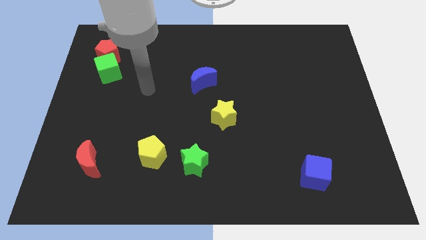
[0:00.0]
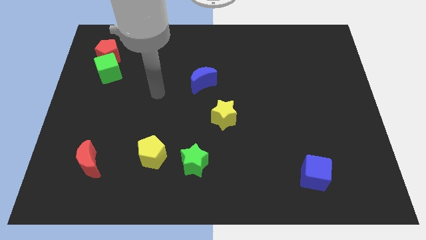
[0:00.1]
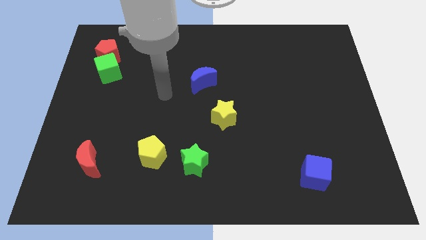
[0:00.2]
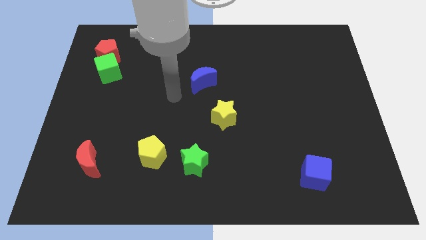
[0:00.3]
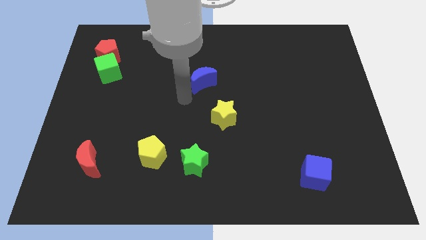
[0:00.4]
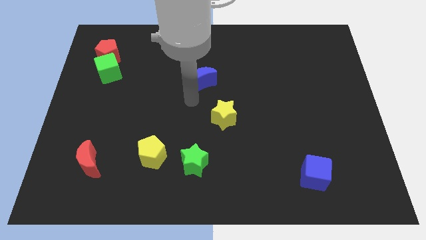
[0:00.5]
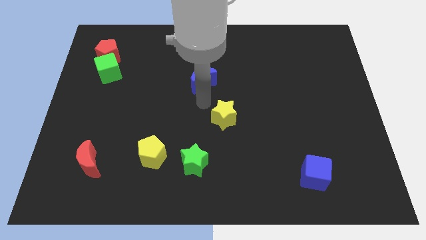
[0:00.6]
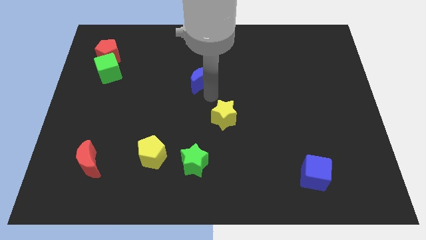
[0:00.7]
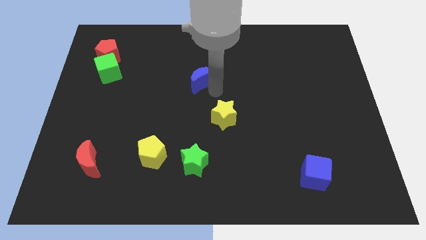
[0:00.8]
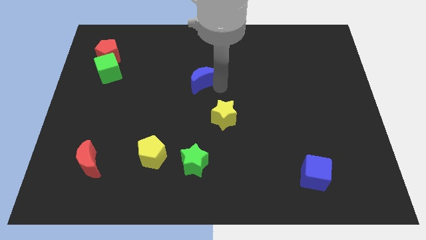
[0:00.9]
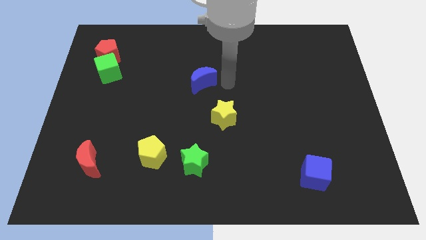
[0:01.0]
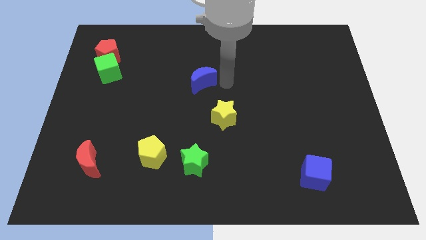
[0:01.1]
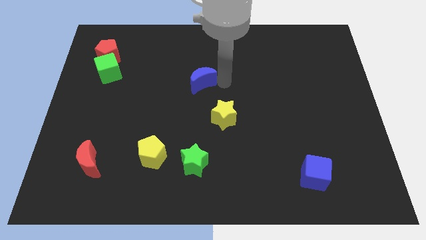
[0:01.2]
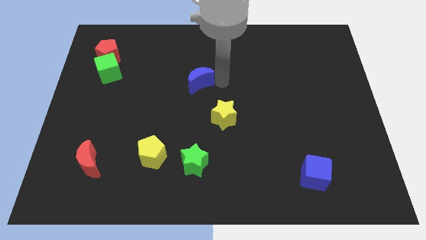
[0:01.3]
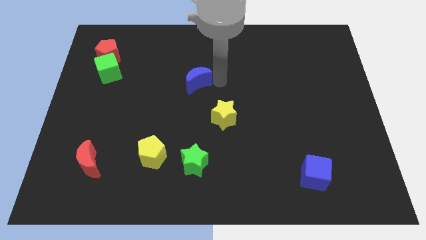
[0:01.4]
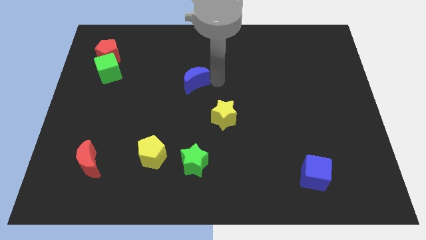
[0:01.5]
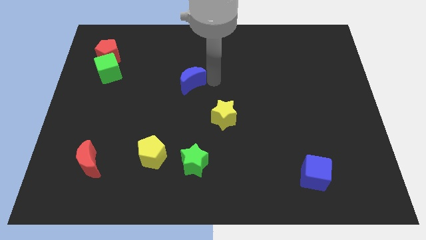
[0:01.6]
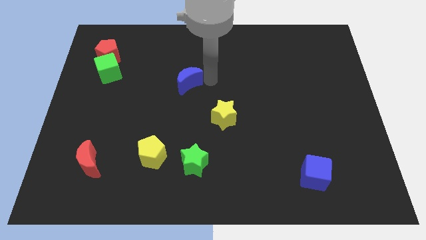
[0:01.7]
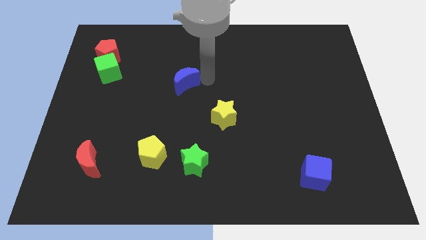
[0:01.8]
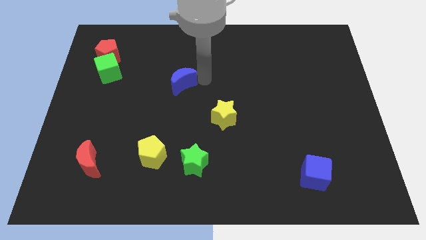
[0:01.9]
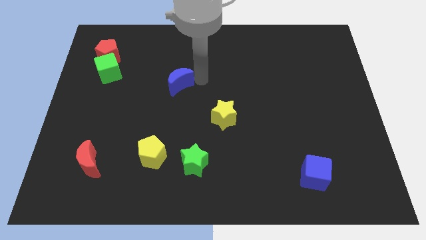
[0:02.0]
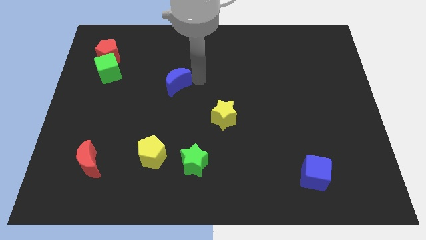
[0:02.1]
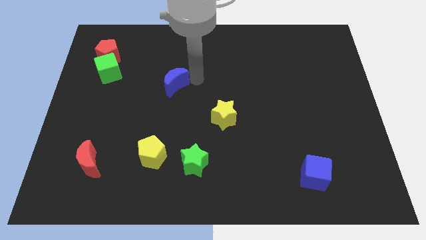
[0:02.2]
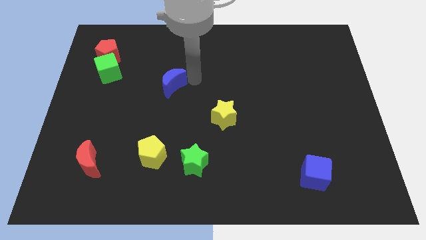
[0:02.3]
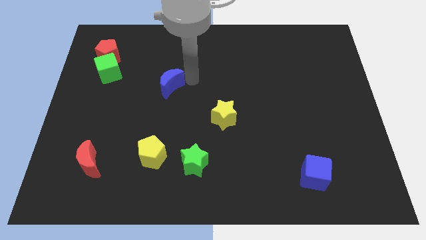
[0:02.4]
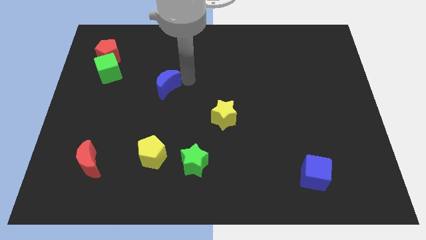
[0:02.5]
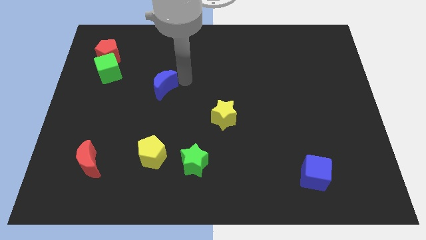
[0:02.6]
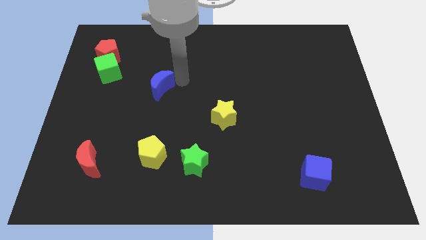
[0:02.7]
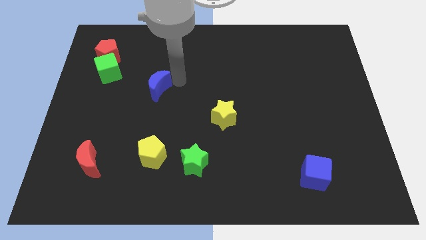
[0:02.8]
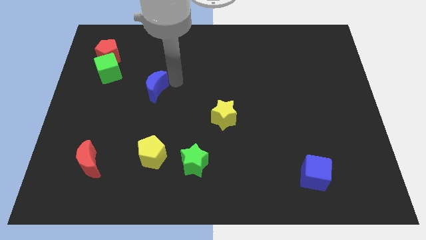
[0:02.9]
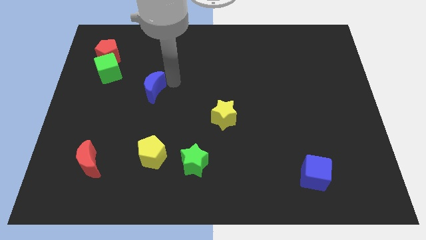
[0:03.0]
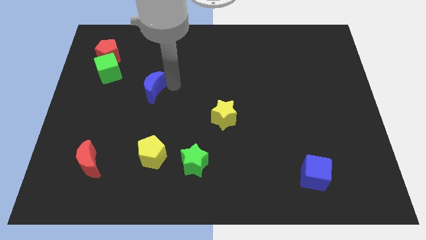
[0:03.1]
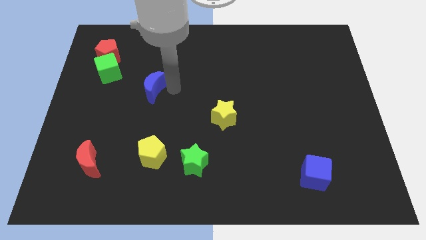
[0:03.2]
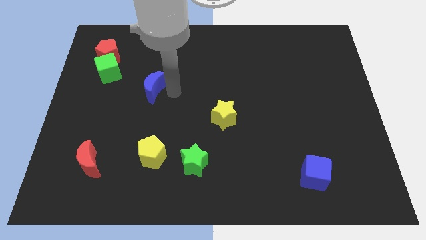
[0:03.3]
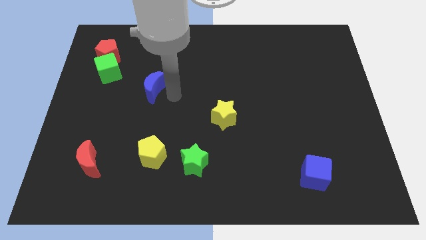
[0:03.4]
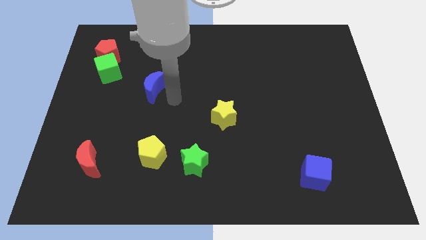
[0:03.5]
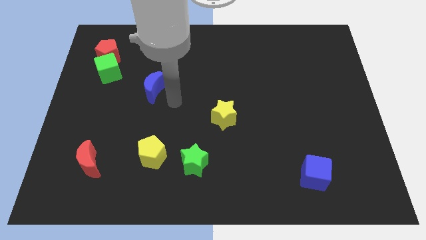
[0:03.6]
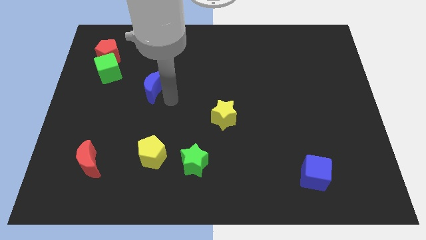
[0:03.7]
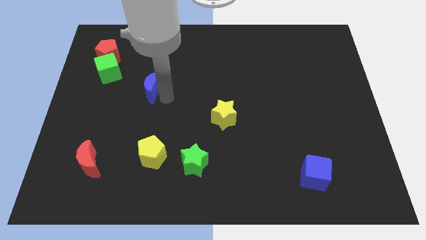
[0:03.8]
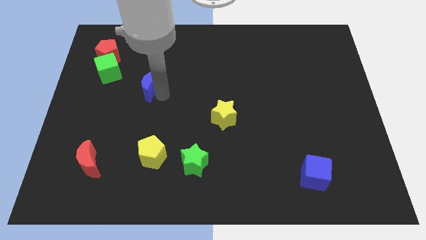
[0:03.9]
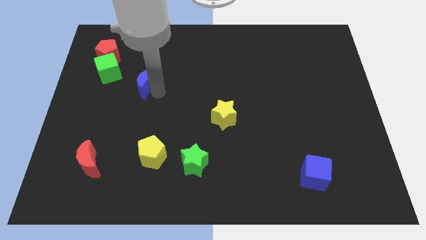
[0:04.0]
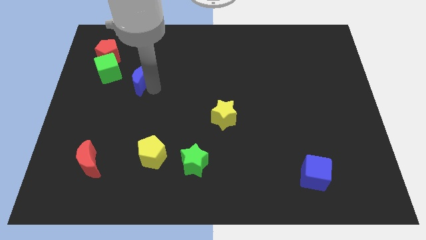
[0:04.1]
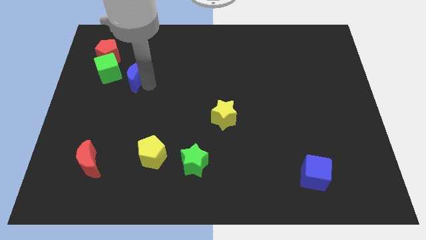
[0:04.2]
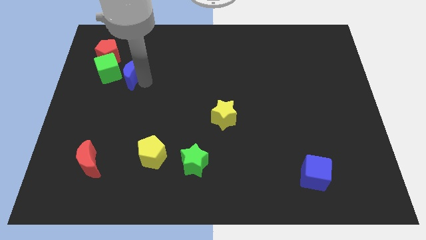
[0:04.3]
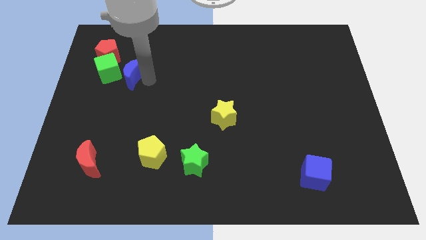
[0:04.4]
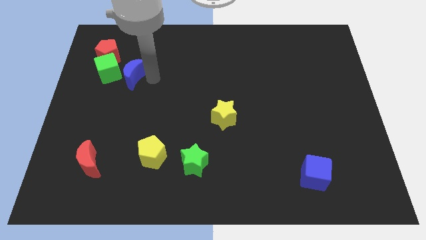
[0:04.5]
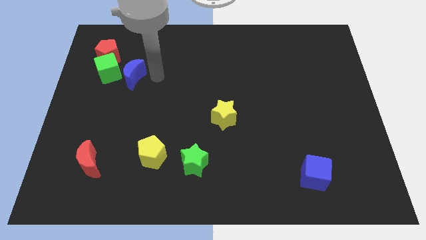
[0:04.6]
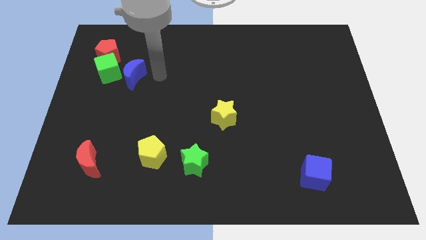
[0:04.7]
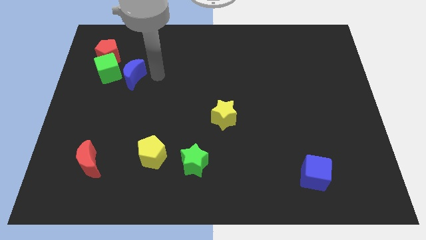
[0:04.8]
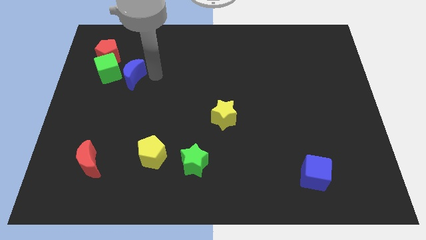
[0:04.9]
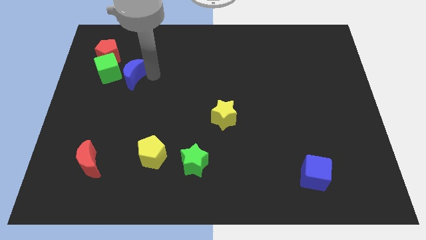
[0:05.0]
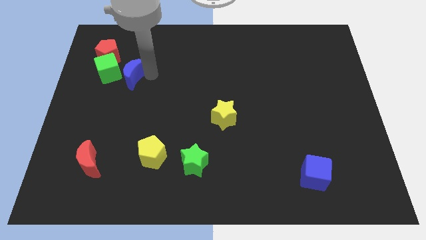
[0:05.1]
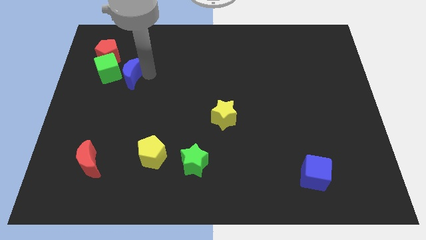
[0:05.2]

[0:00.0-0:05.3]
put the blue moon next to the green cube

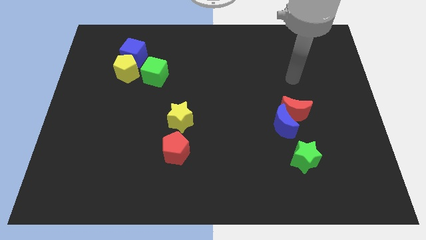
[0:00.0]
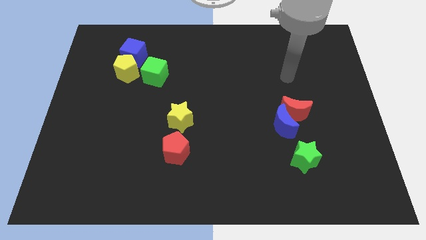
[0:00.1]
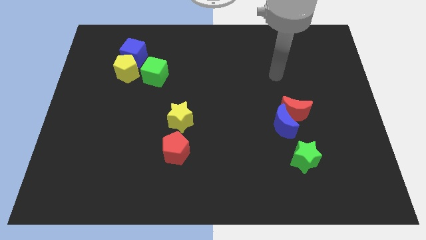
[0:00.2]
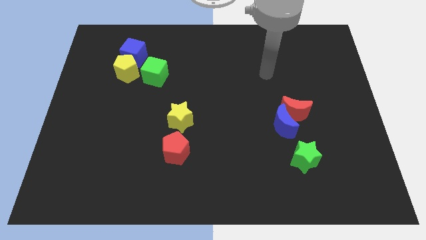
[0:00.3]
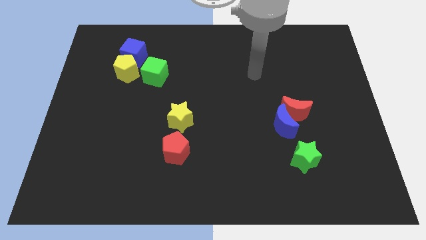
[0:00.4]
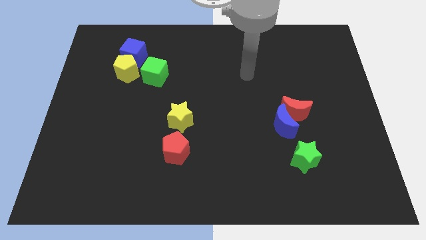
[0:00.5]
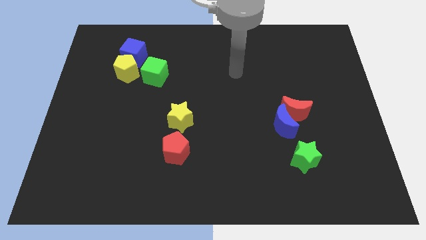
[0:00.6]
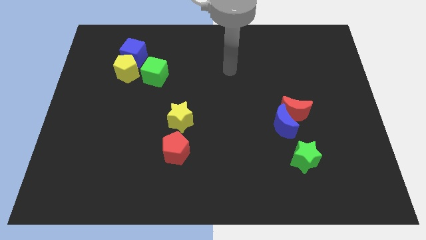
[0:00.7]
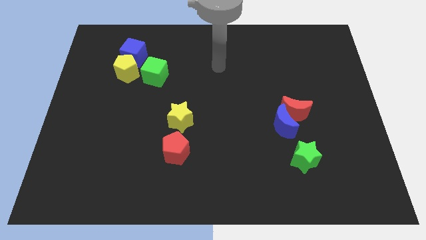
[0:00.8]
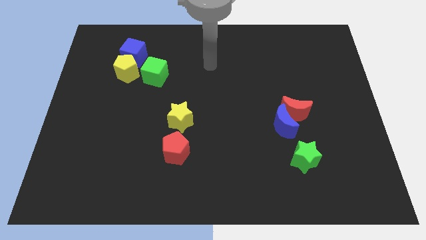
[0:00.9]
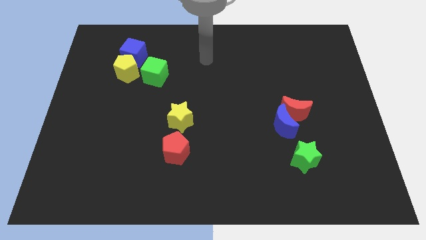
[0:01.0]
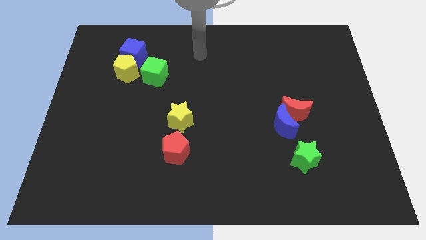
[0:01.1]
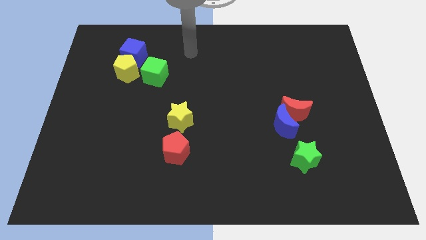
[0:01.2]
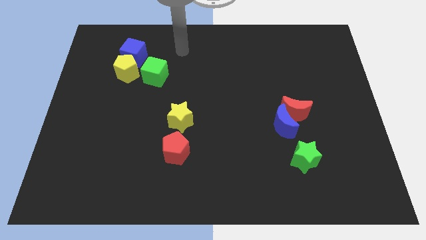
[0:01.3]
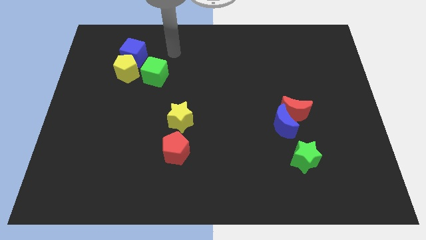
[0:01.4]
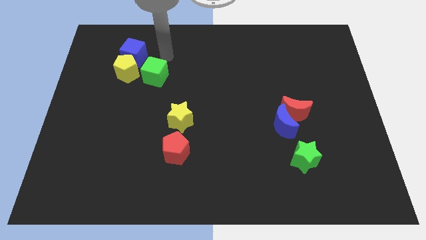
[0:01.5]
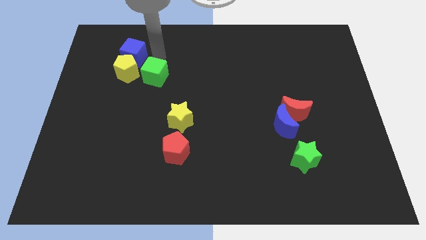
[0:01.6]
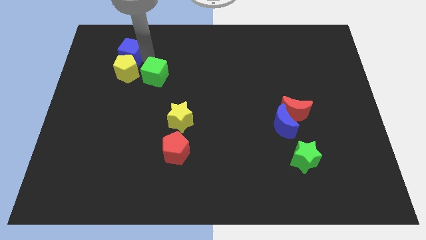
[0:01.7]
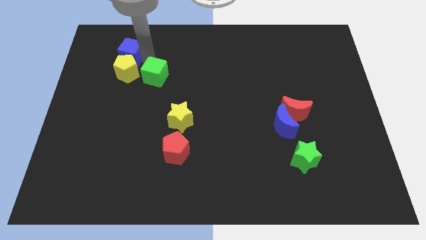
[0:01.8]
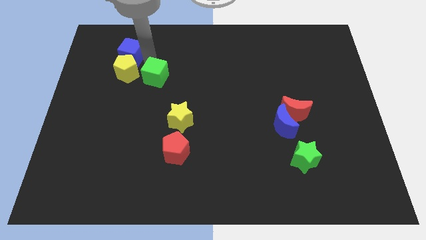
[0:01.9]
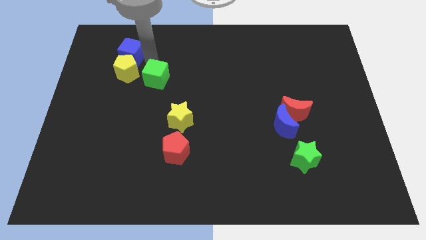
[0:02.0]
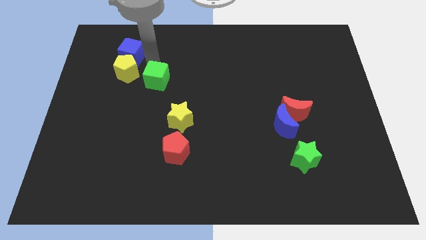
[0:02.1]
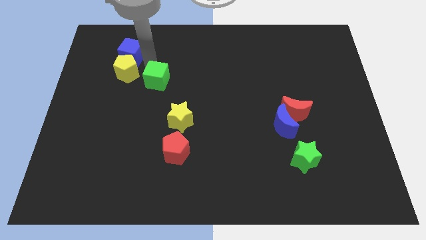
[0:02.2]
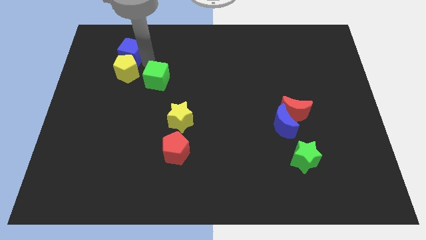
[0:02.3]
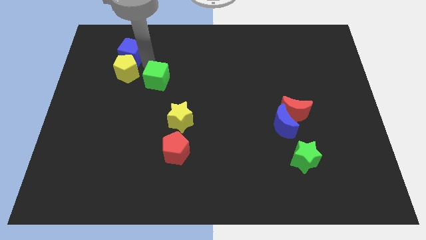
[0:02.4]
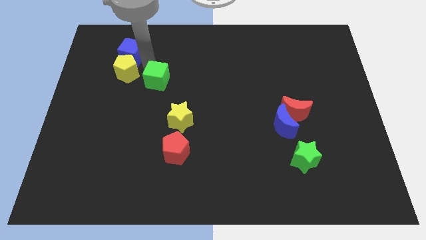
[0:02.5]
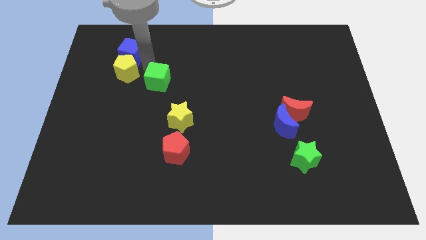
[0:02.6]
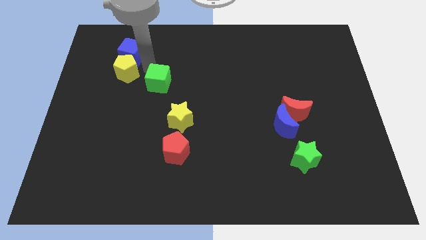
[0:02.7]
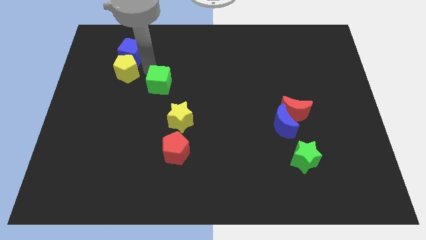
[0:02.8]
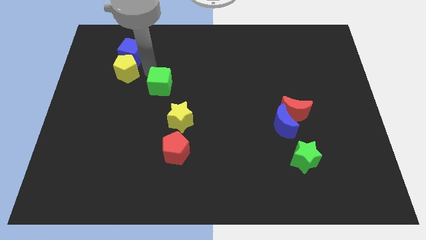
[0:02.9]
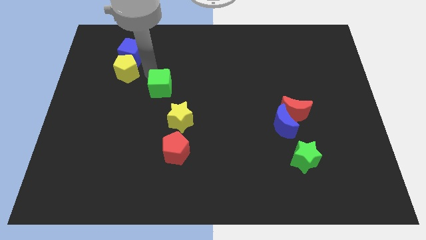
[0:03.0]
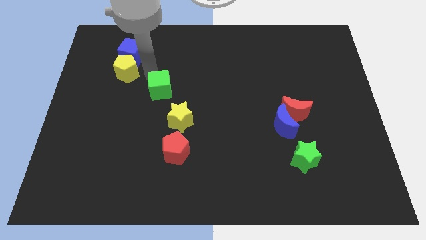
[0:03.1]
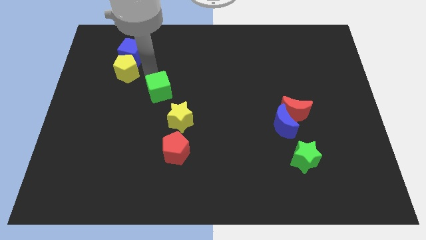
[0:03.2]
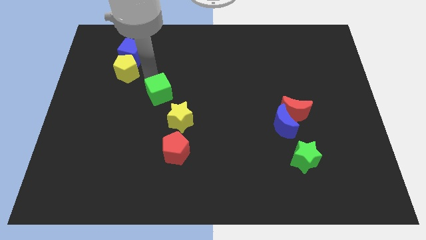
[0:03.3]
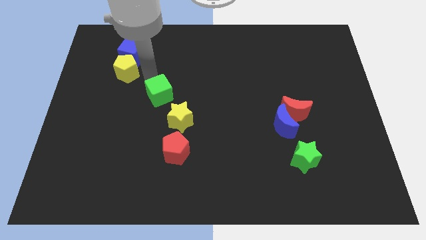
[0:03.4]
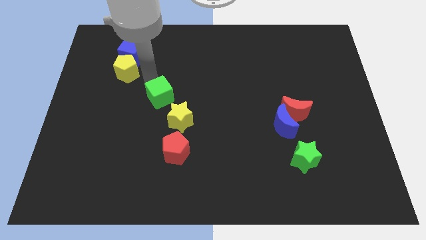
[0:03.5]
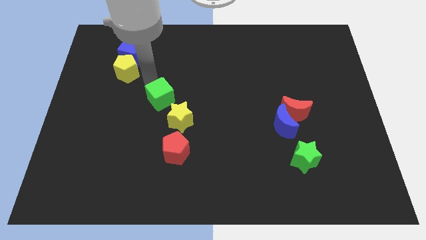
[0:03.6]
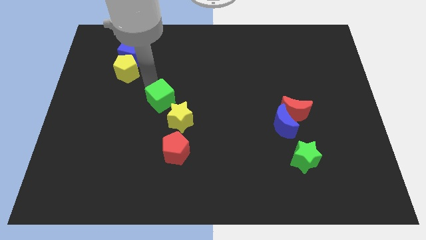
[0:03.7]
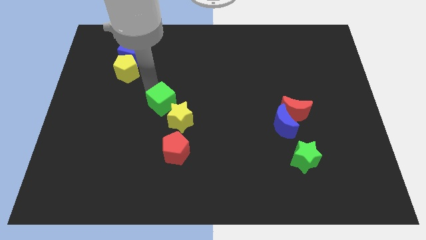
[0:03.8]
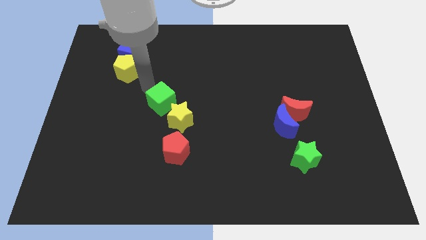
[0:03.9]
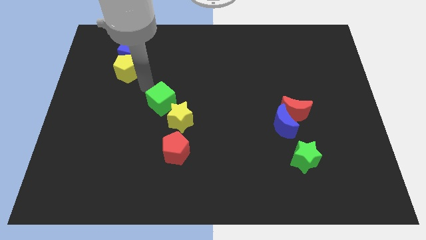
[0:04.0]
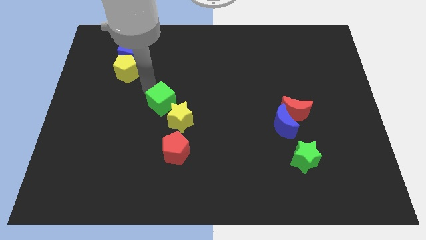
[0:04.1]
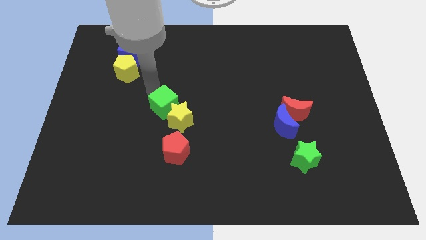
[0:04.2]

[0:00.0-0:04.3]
put the green cube to the yellow star
